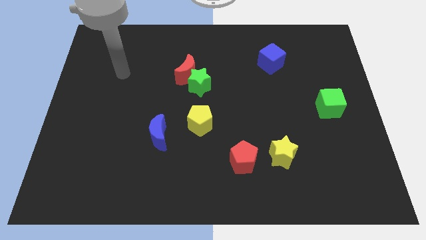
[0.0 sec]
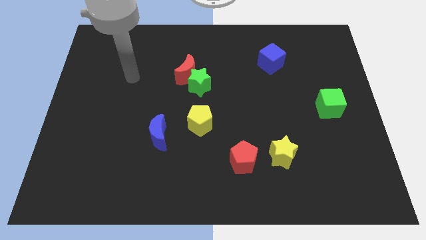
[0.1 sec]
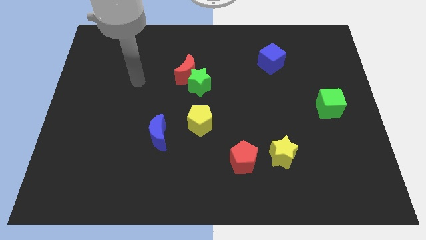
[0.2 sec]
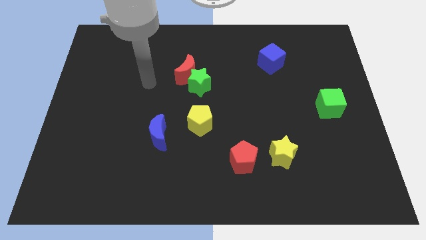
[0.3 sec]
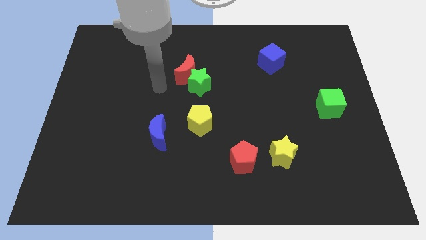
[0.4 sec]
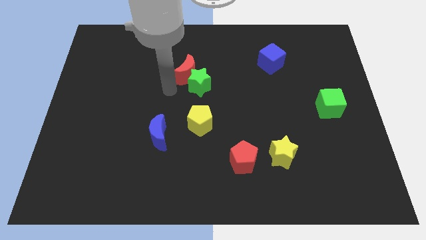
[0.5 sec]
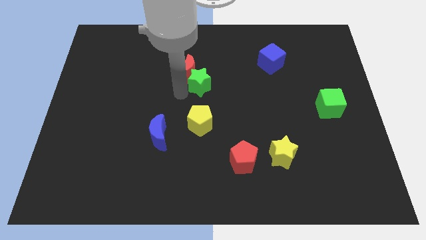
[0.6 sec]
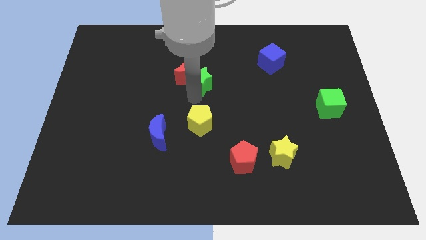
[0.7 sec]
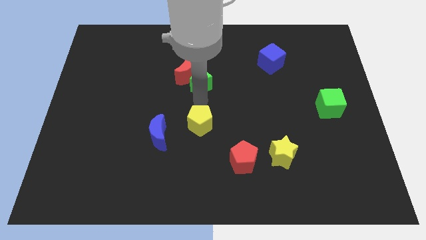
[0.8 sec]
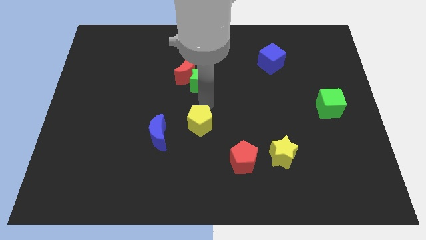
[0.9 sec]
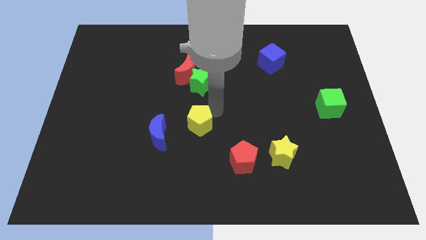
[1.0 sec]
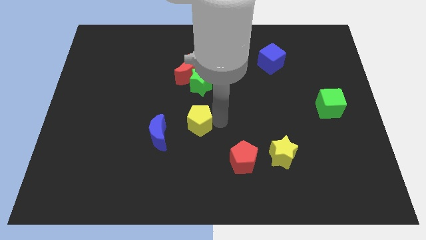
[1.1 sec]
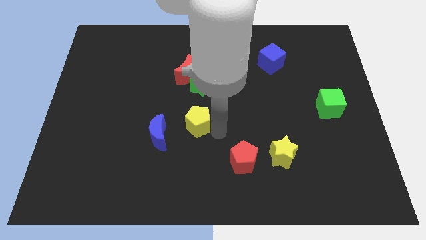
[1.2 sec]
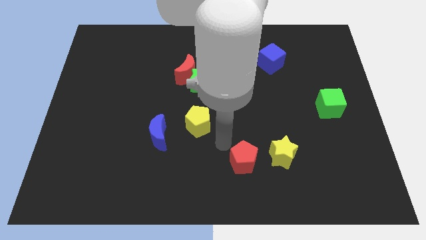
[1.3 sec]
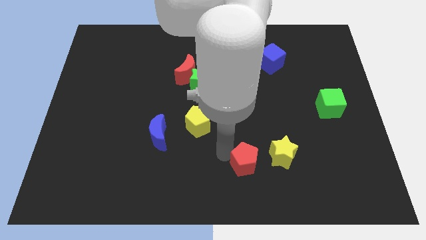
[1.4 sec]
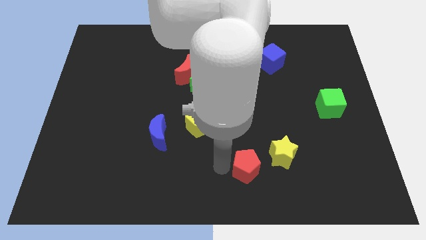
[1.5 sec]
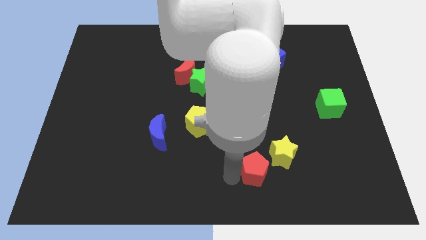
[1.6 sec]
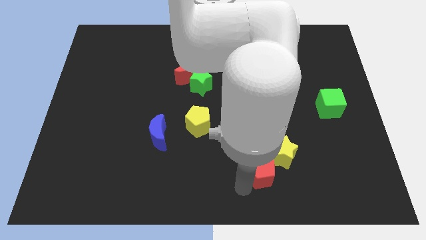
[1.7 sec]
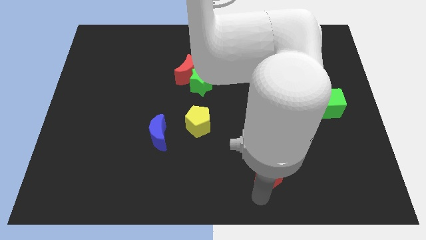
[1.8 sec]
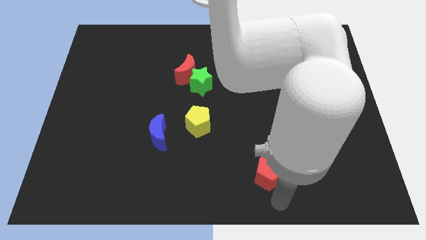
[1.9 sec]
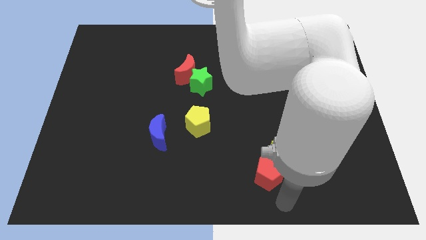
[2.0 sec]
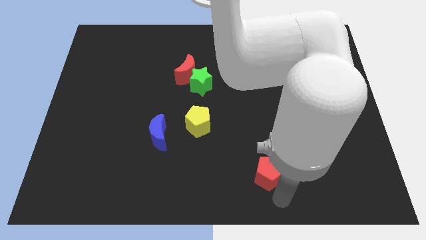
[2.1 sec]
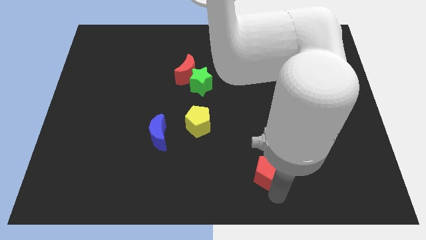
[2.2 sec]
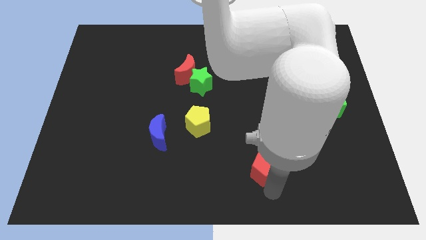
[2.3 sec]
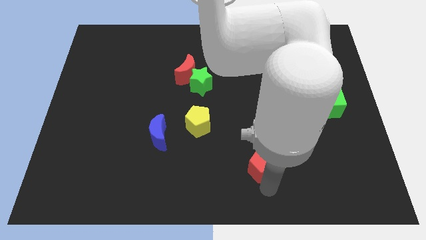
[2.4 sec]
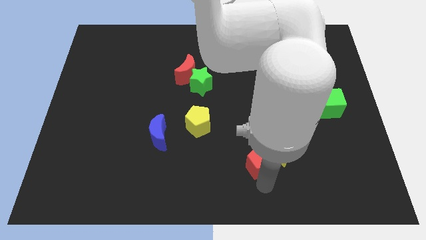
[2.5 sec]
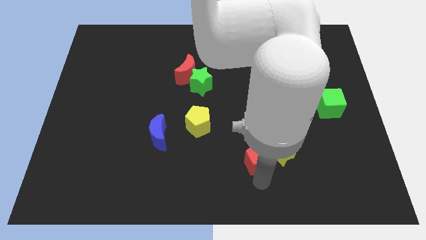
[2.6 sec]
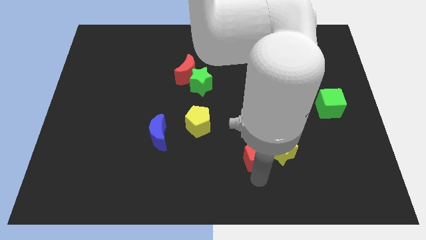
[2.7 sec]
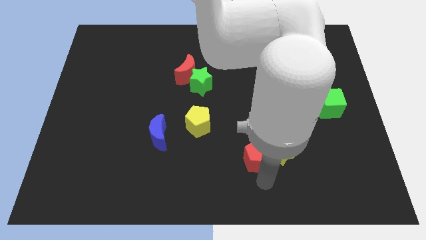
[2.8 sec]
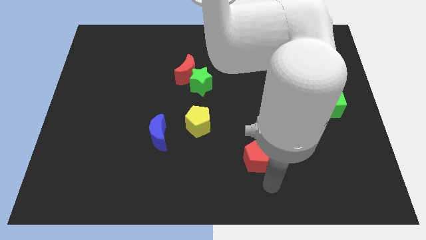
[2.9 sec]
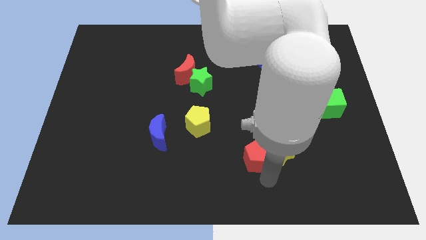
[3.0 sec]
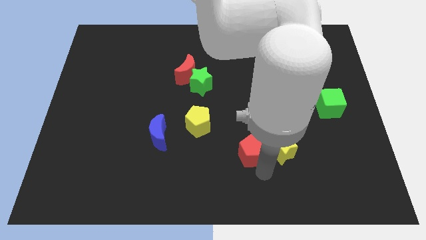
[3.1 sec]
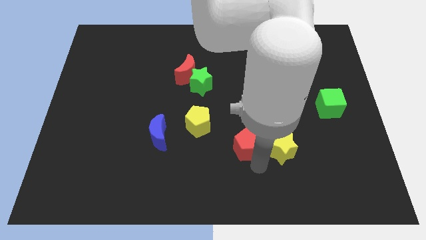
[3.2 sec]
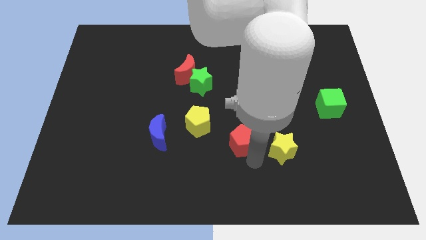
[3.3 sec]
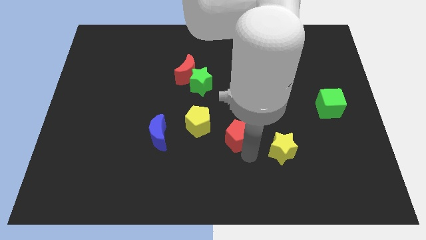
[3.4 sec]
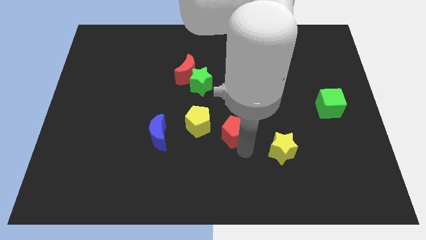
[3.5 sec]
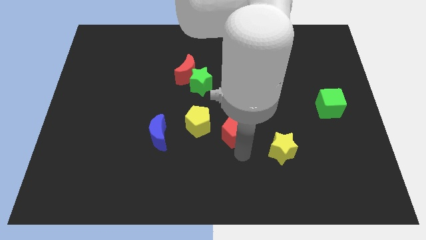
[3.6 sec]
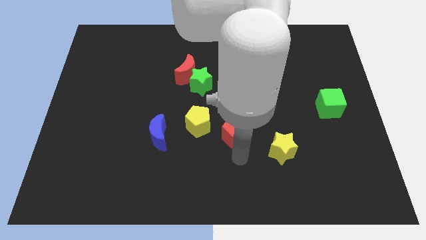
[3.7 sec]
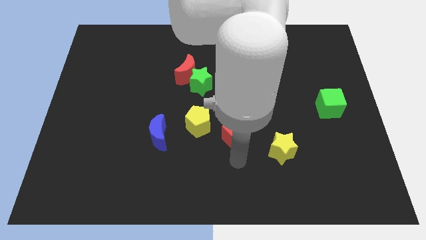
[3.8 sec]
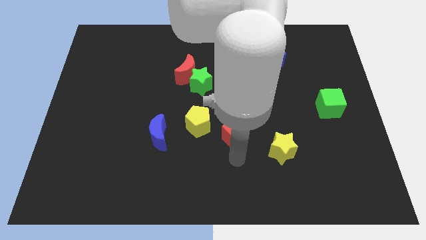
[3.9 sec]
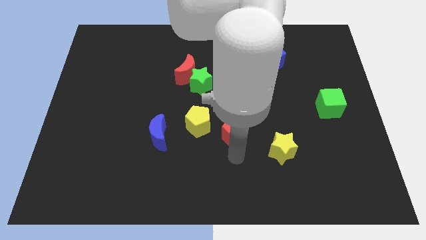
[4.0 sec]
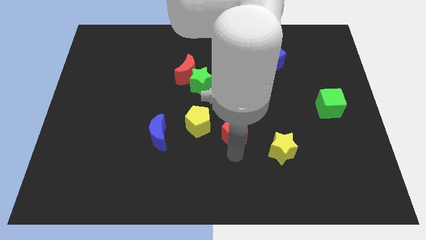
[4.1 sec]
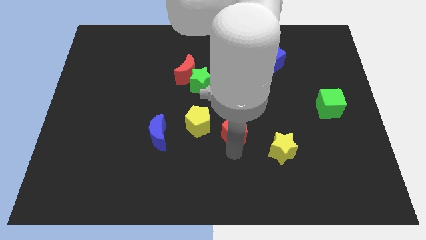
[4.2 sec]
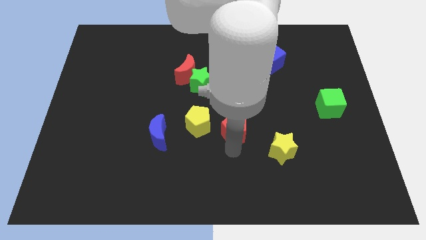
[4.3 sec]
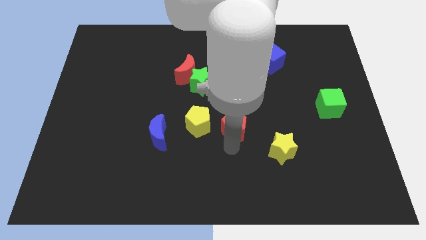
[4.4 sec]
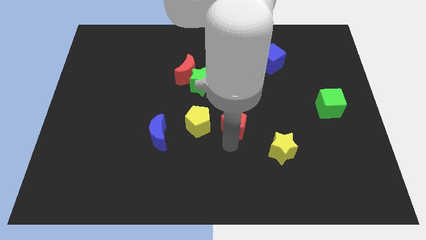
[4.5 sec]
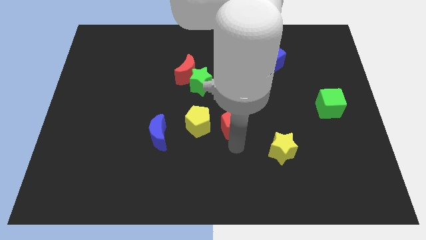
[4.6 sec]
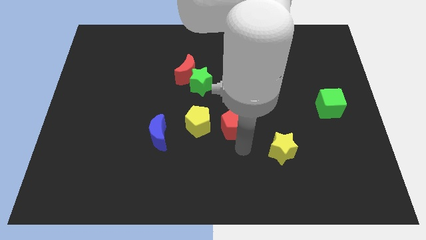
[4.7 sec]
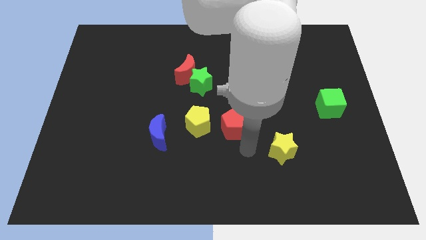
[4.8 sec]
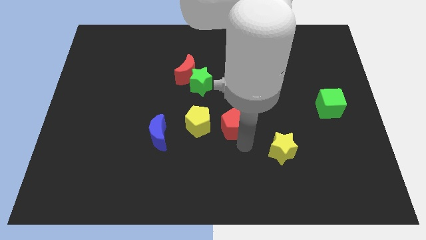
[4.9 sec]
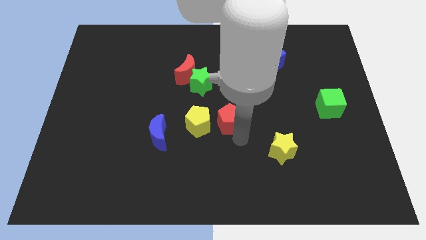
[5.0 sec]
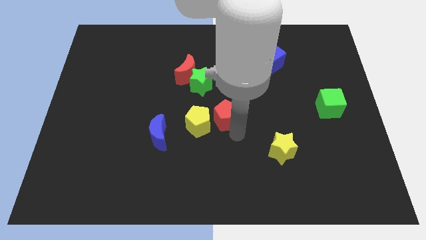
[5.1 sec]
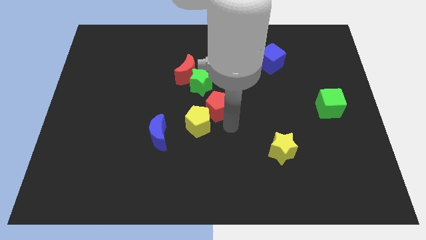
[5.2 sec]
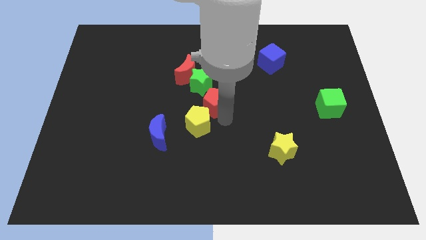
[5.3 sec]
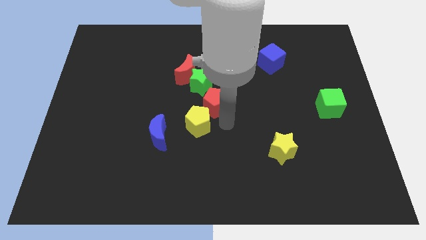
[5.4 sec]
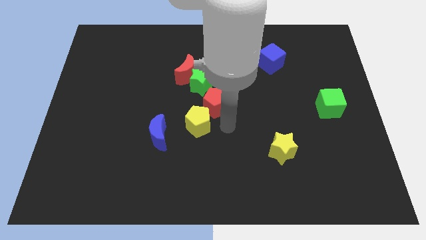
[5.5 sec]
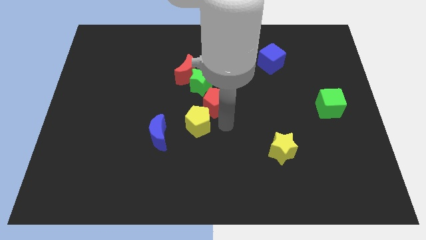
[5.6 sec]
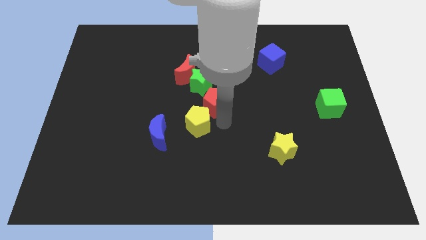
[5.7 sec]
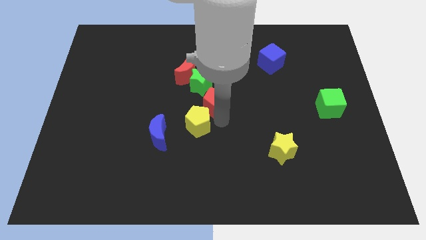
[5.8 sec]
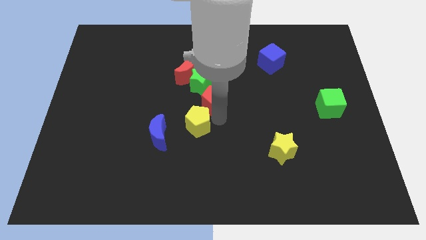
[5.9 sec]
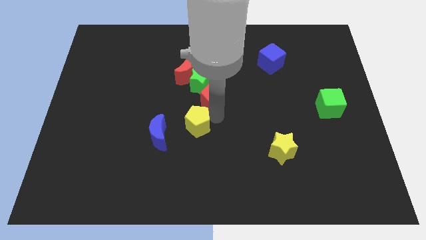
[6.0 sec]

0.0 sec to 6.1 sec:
put the red pentagon next to the green star
